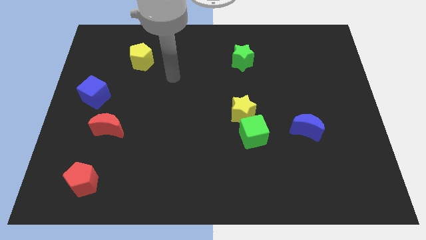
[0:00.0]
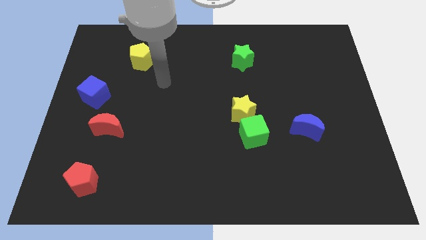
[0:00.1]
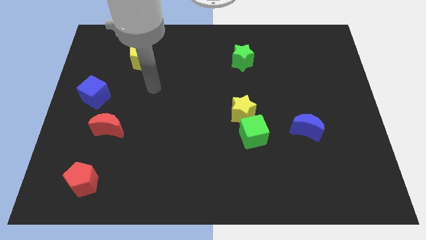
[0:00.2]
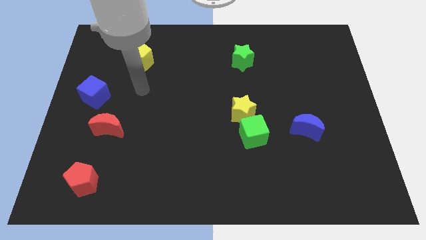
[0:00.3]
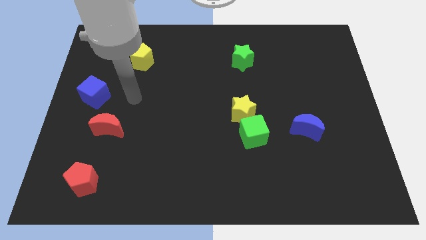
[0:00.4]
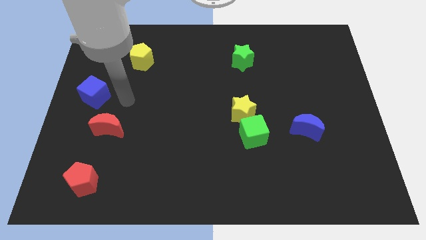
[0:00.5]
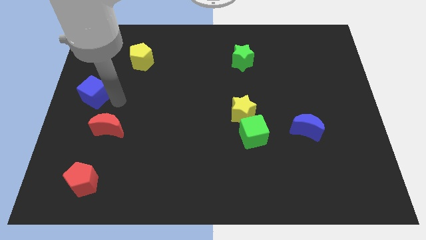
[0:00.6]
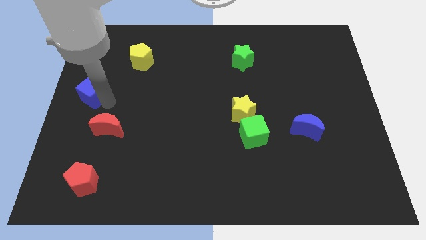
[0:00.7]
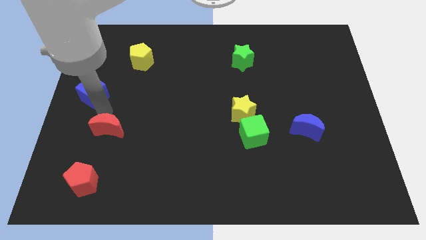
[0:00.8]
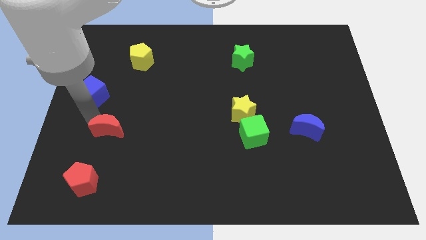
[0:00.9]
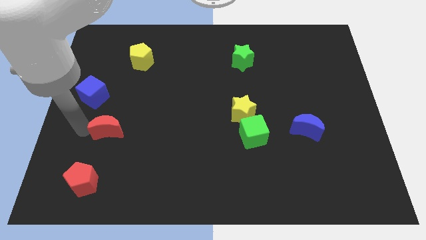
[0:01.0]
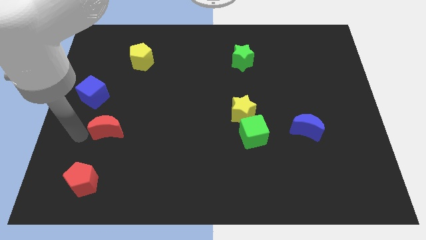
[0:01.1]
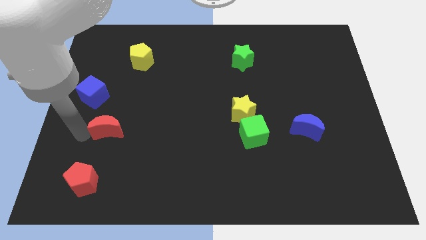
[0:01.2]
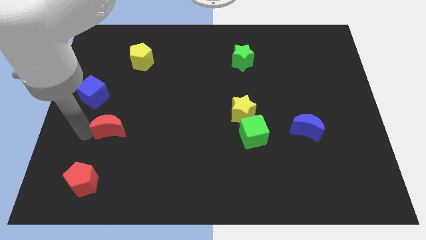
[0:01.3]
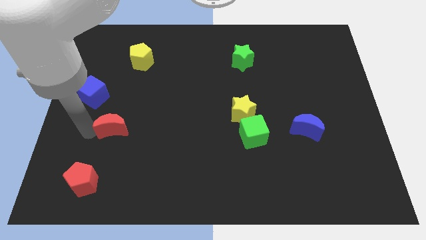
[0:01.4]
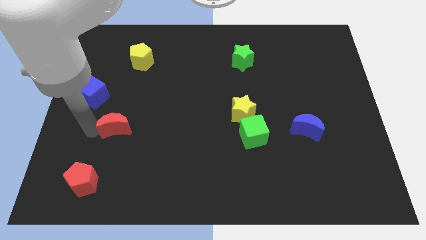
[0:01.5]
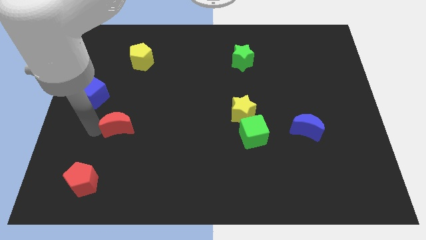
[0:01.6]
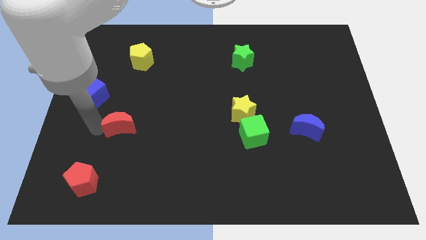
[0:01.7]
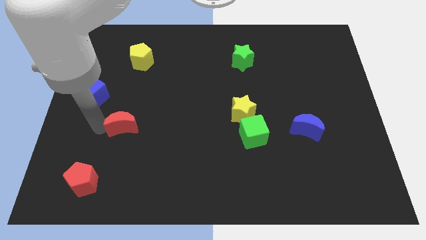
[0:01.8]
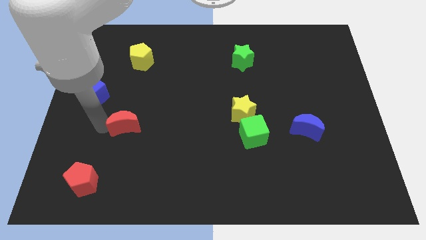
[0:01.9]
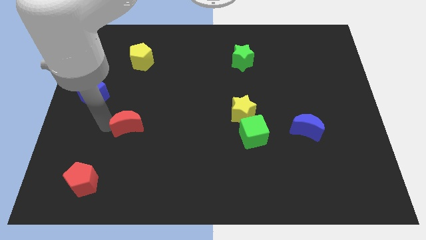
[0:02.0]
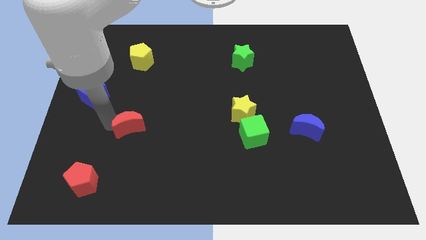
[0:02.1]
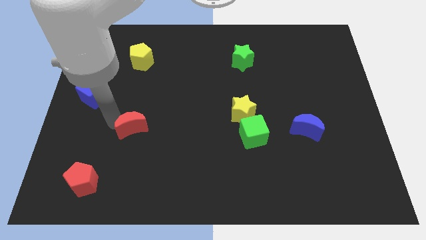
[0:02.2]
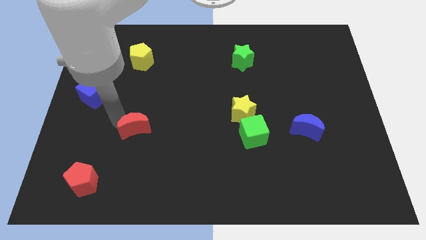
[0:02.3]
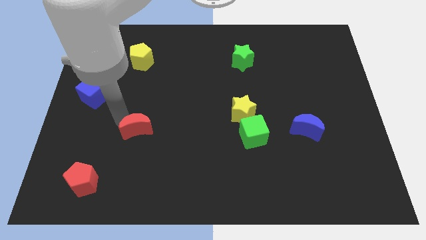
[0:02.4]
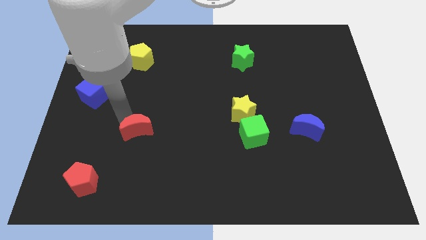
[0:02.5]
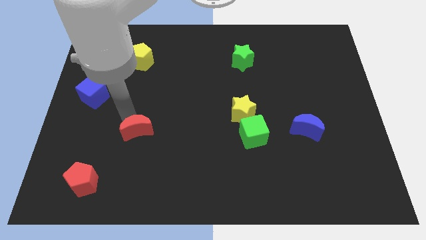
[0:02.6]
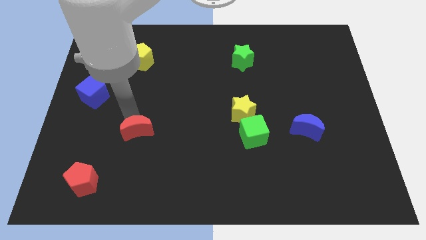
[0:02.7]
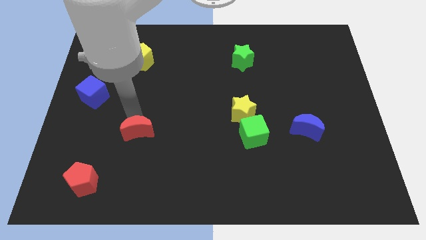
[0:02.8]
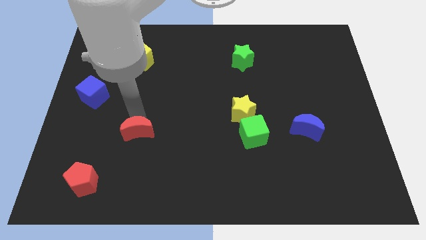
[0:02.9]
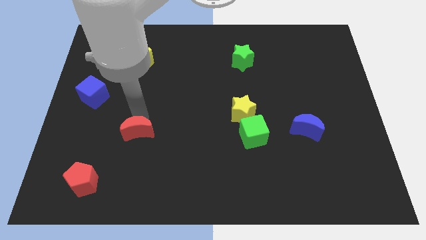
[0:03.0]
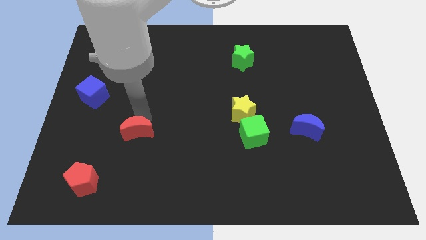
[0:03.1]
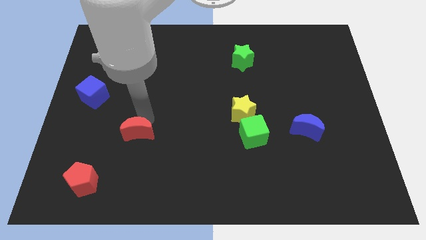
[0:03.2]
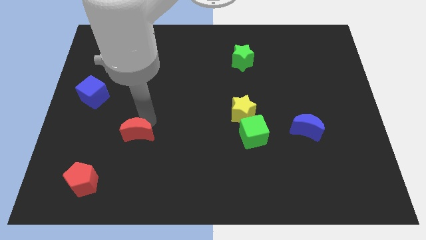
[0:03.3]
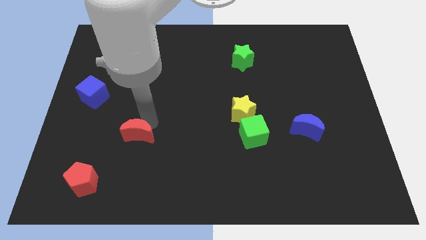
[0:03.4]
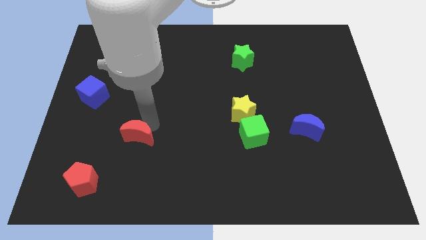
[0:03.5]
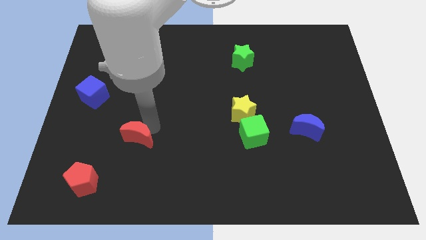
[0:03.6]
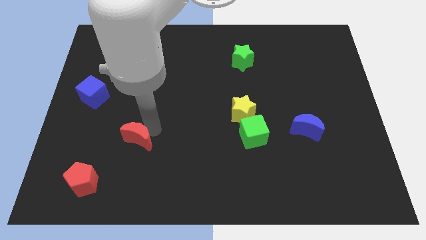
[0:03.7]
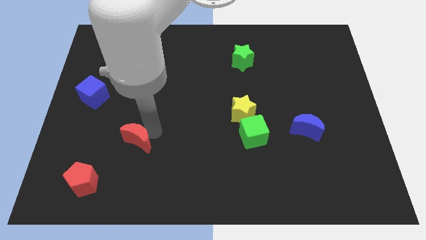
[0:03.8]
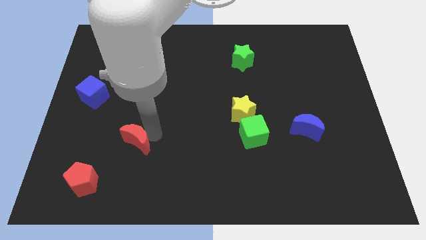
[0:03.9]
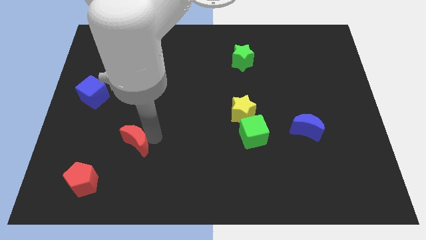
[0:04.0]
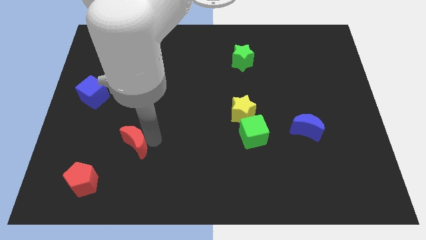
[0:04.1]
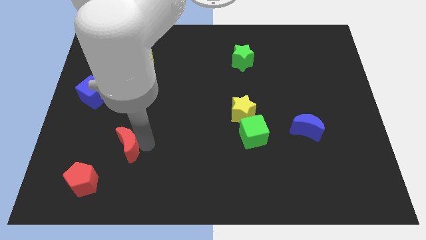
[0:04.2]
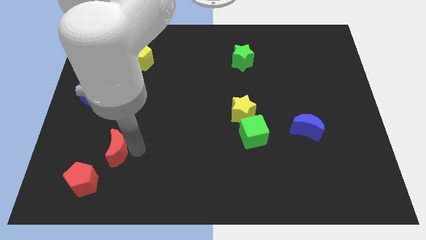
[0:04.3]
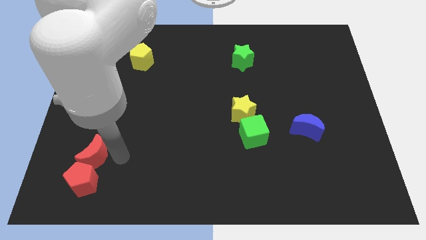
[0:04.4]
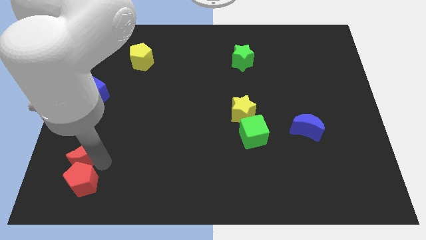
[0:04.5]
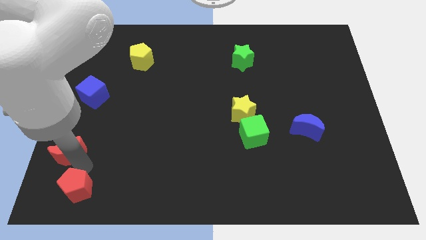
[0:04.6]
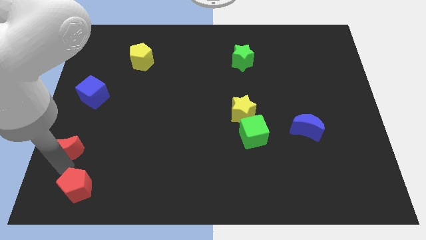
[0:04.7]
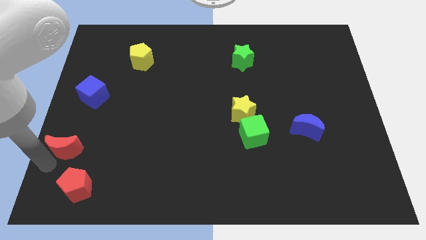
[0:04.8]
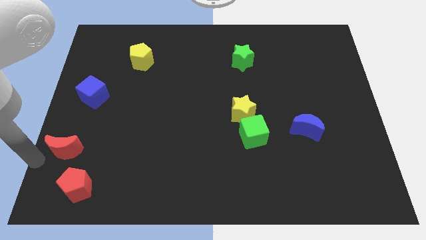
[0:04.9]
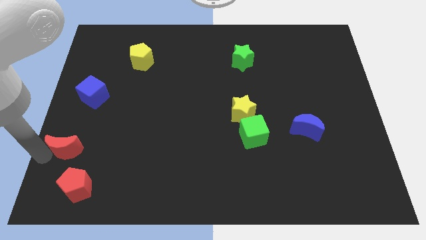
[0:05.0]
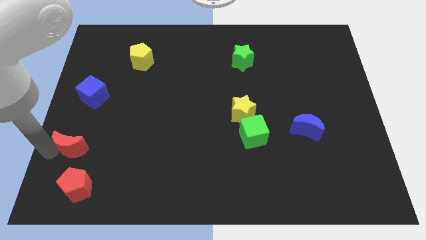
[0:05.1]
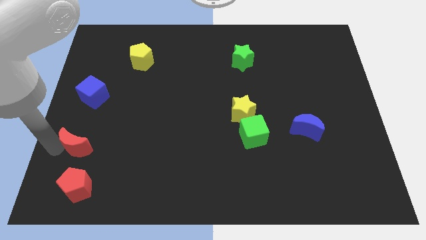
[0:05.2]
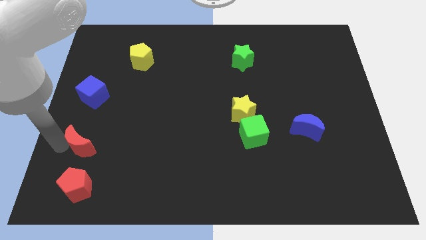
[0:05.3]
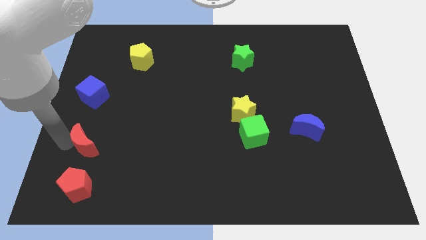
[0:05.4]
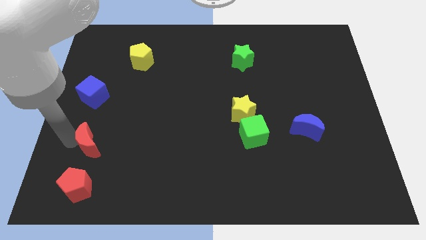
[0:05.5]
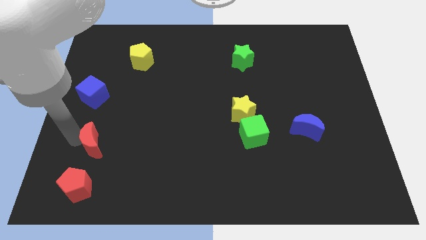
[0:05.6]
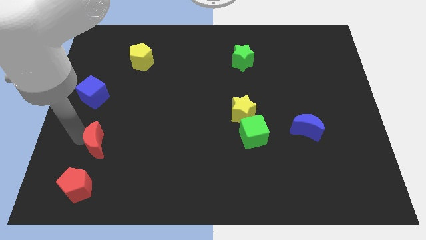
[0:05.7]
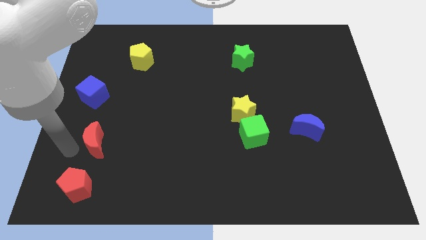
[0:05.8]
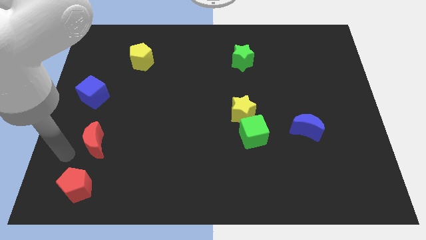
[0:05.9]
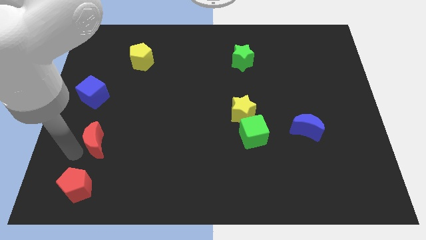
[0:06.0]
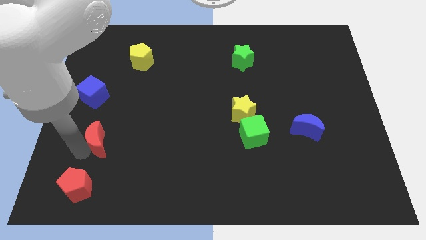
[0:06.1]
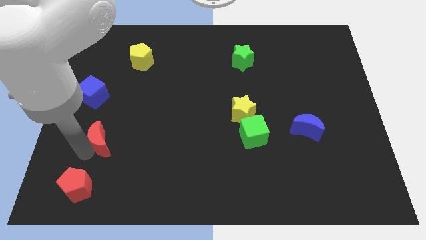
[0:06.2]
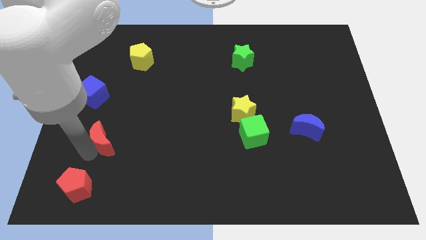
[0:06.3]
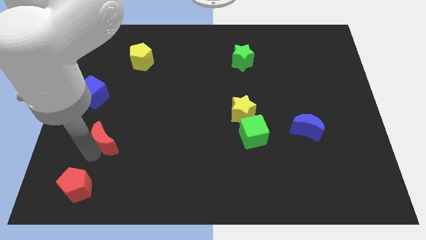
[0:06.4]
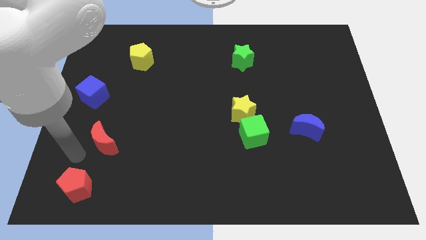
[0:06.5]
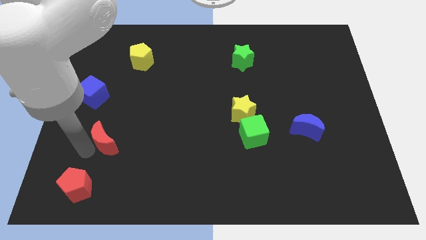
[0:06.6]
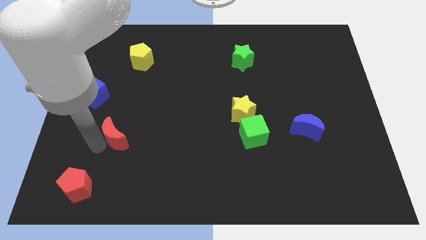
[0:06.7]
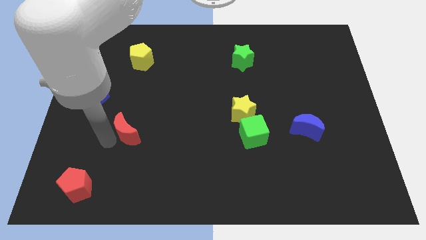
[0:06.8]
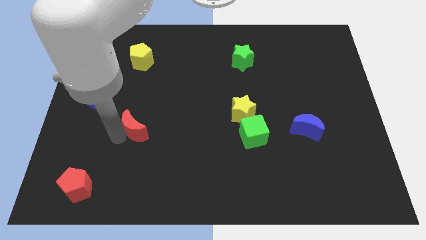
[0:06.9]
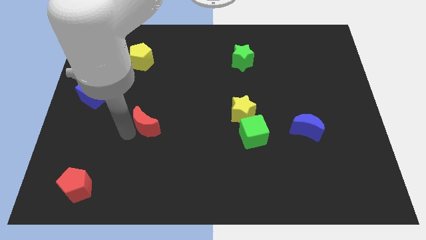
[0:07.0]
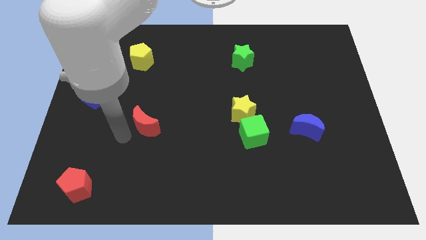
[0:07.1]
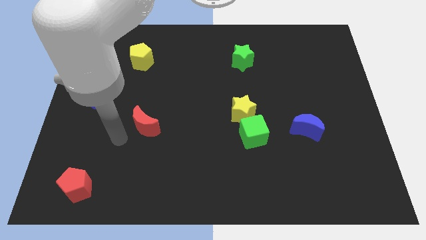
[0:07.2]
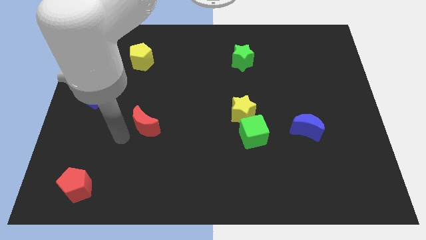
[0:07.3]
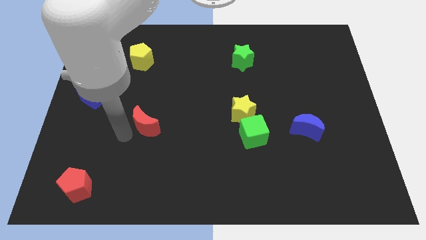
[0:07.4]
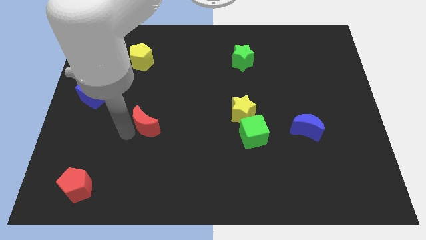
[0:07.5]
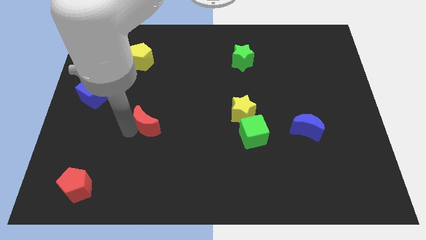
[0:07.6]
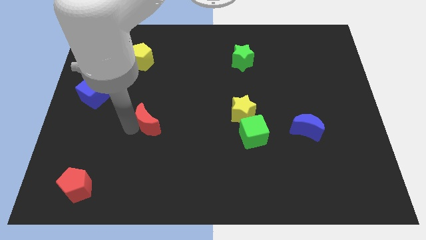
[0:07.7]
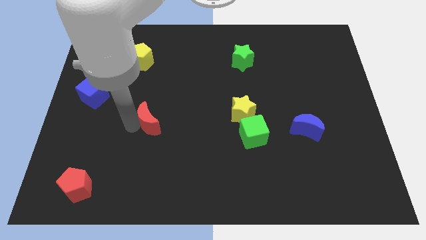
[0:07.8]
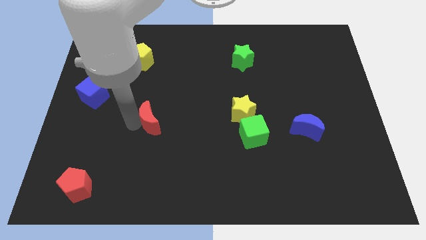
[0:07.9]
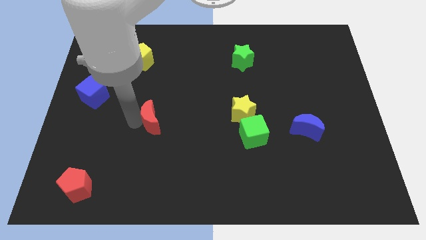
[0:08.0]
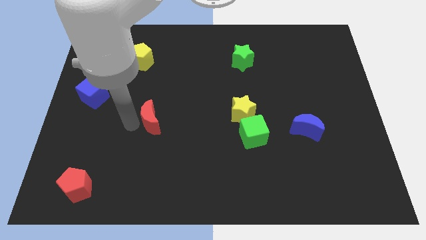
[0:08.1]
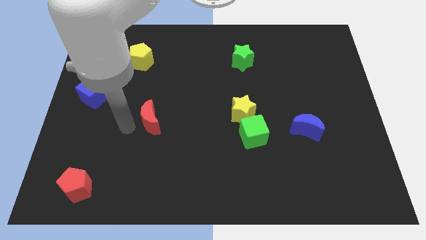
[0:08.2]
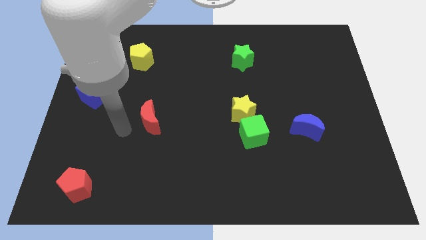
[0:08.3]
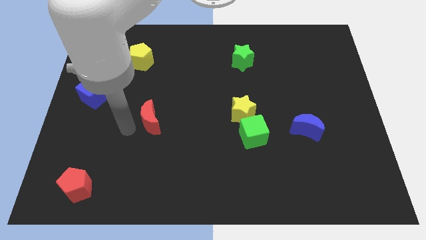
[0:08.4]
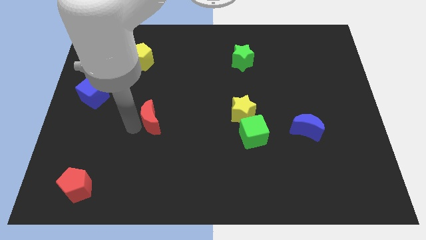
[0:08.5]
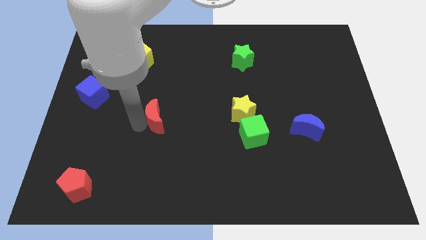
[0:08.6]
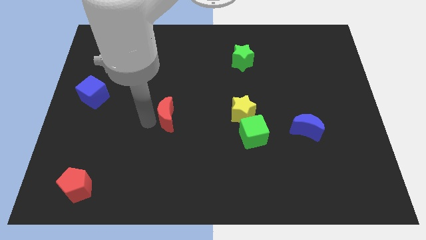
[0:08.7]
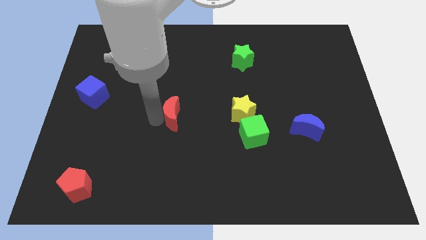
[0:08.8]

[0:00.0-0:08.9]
slide the red moon just left of the yellow star
